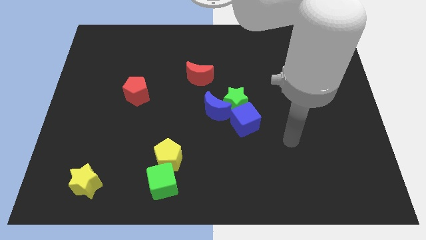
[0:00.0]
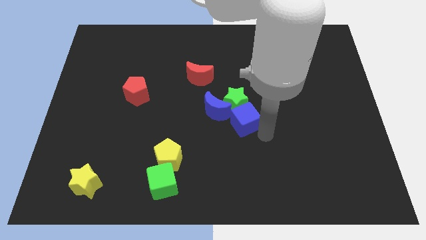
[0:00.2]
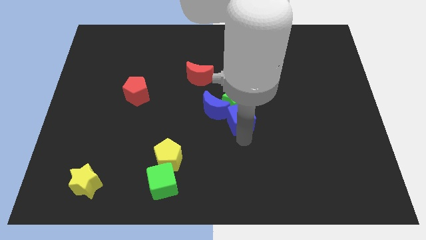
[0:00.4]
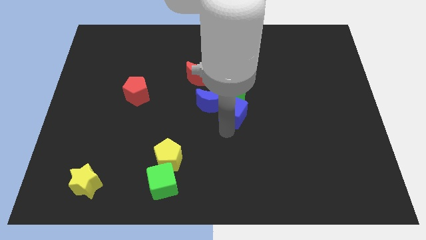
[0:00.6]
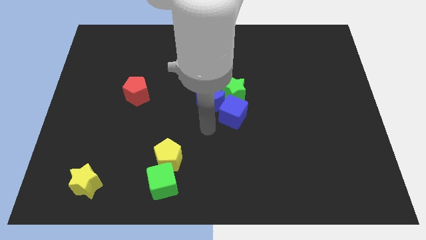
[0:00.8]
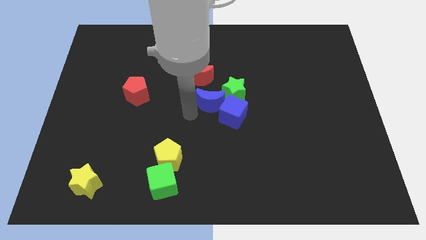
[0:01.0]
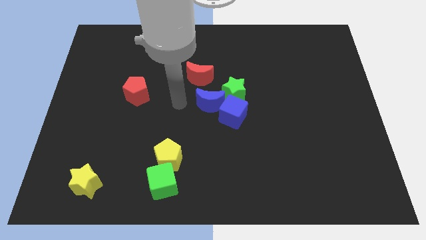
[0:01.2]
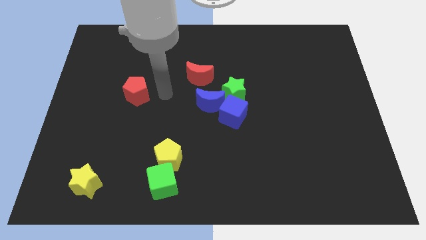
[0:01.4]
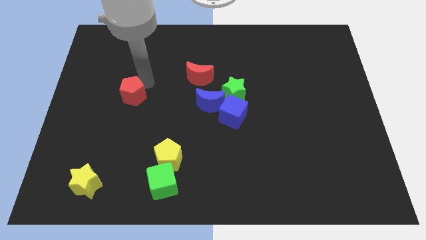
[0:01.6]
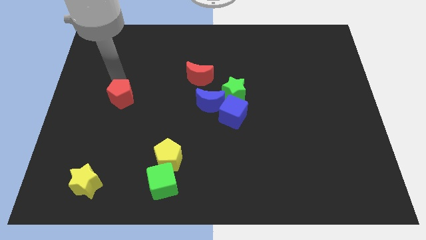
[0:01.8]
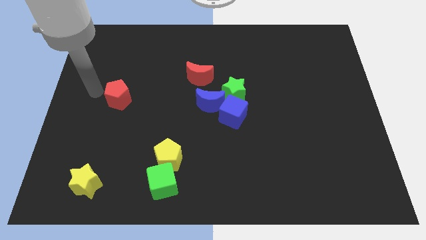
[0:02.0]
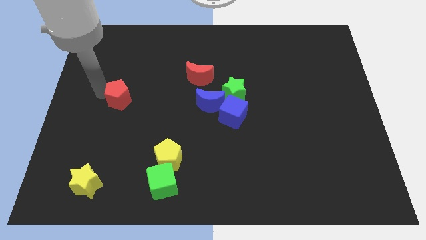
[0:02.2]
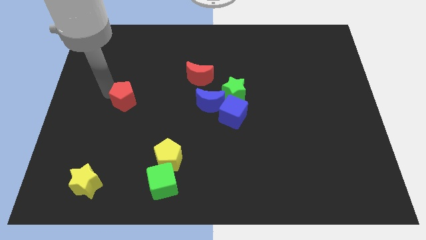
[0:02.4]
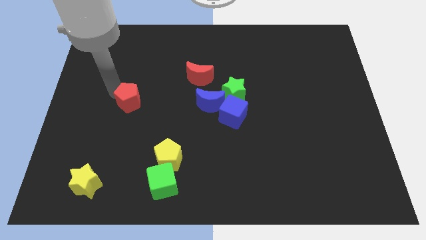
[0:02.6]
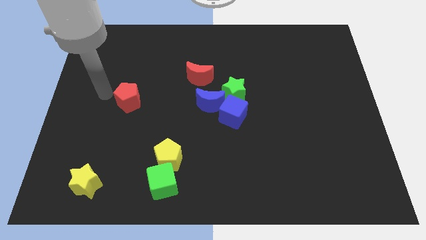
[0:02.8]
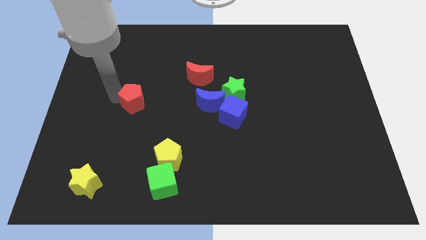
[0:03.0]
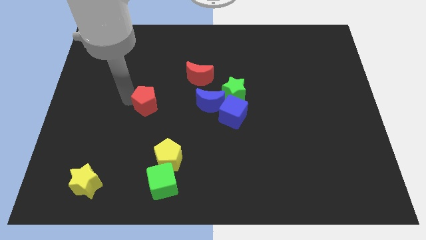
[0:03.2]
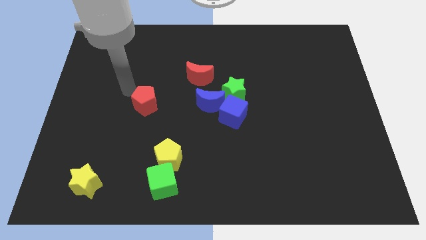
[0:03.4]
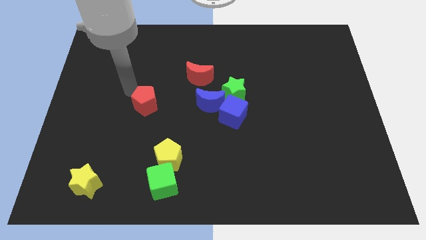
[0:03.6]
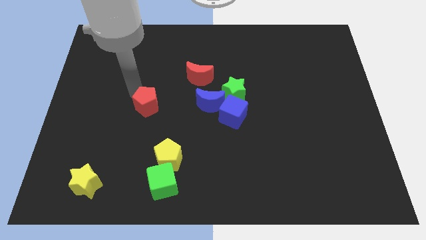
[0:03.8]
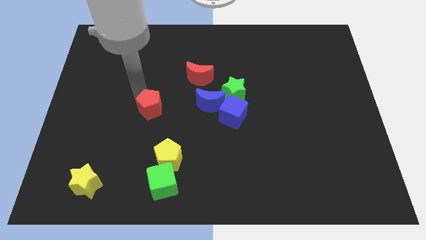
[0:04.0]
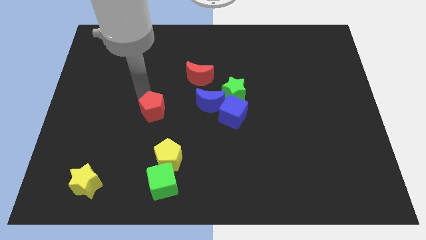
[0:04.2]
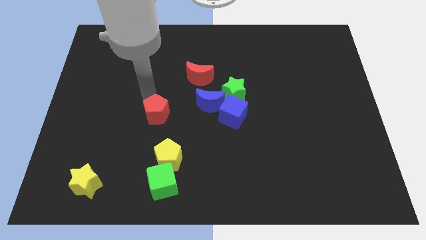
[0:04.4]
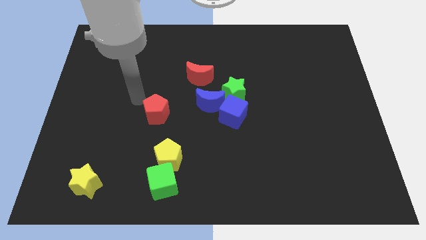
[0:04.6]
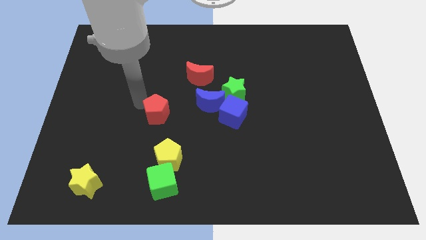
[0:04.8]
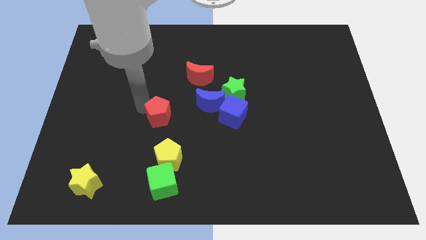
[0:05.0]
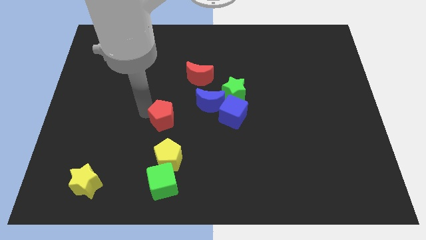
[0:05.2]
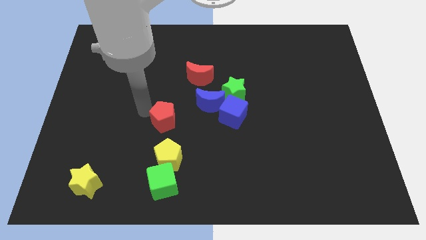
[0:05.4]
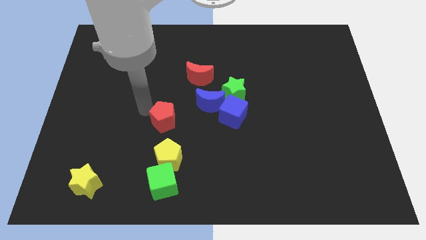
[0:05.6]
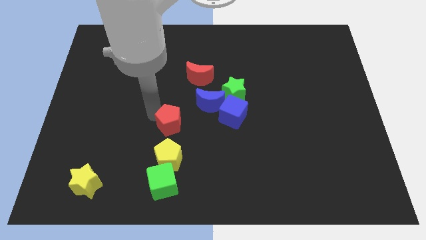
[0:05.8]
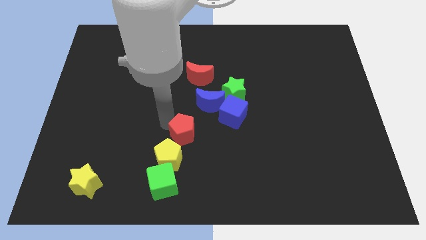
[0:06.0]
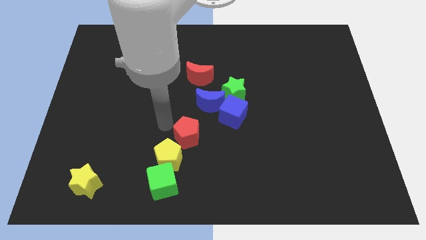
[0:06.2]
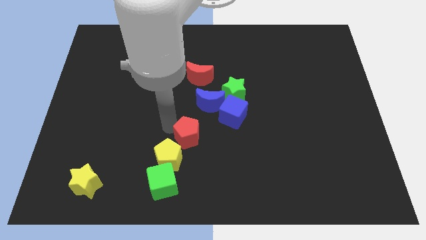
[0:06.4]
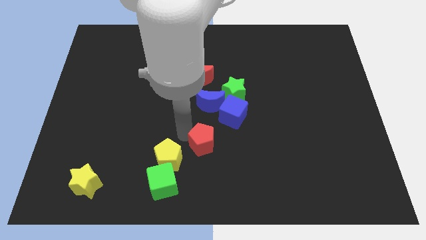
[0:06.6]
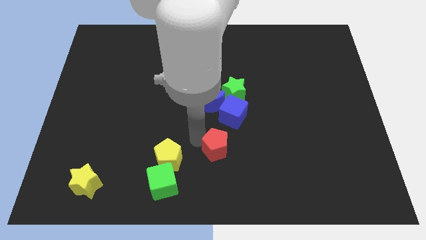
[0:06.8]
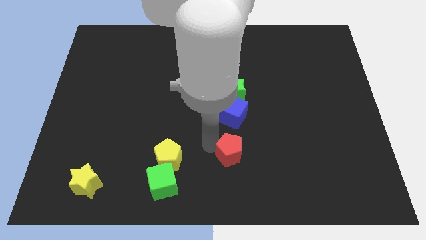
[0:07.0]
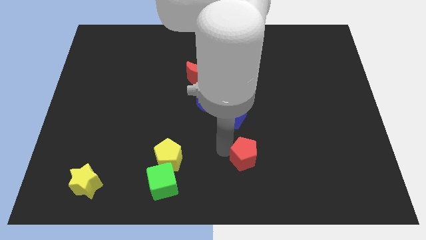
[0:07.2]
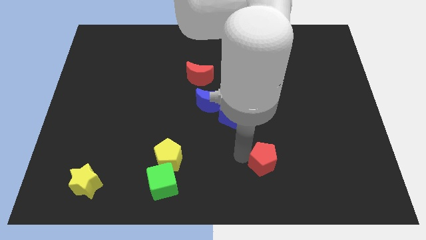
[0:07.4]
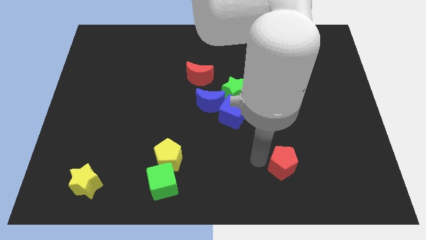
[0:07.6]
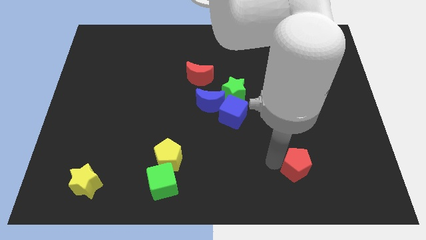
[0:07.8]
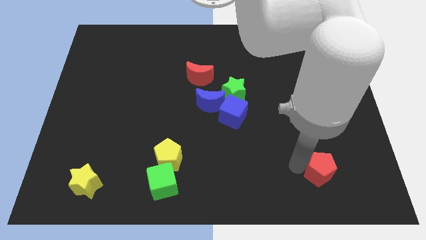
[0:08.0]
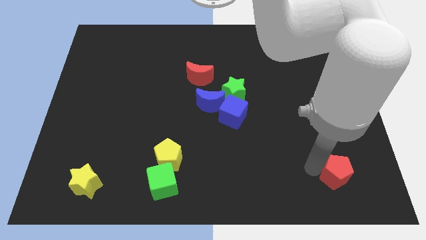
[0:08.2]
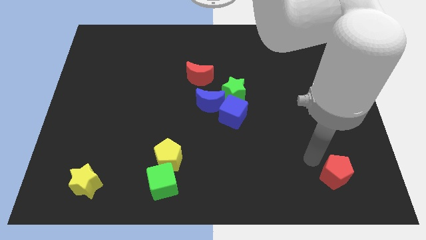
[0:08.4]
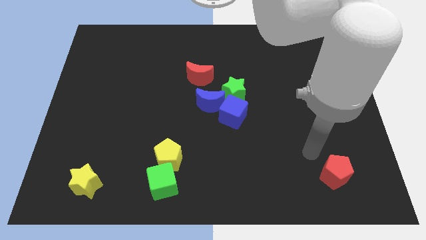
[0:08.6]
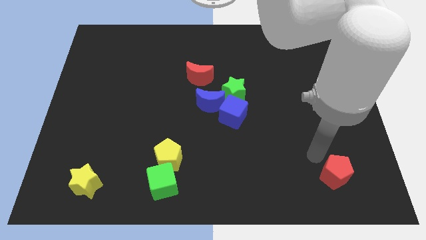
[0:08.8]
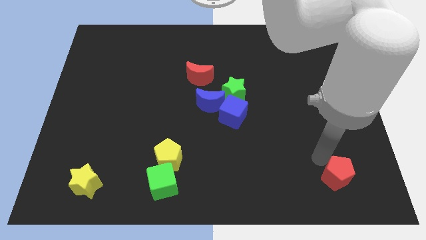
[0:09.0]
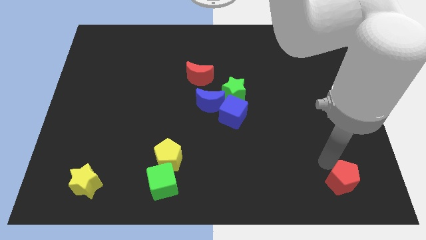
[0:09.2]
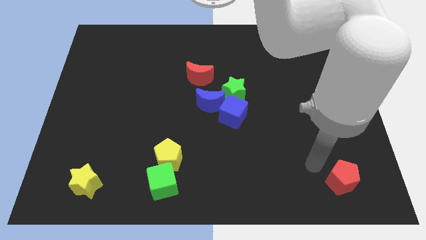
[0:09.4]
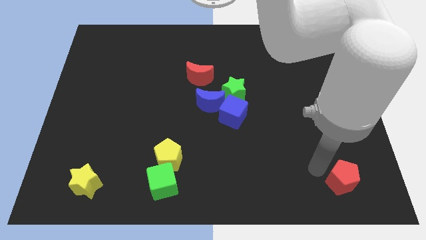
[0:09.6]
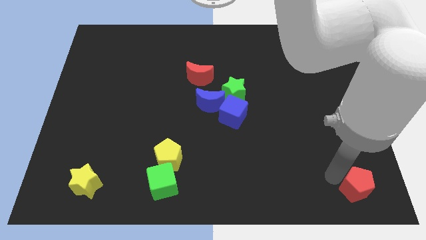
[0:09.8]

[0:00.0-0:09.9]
push the red pentagon to the lower right corner

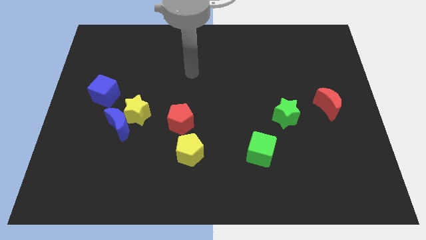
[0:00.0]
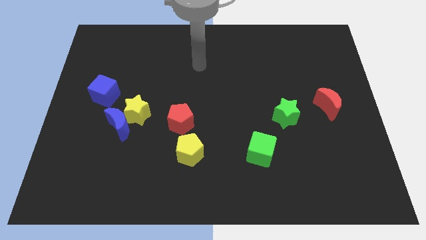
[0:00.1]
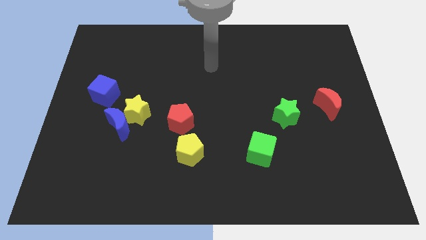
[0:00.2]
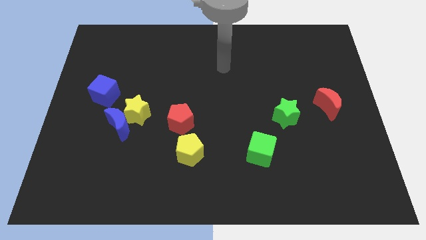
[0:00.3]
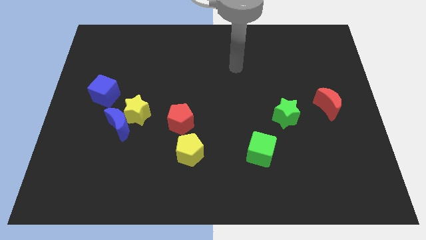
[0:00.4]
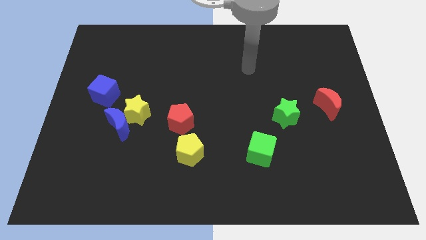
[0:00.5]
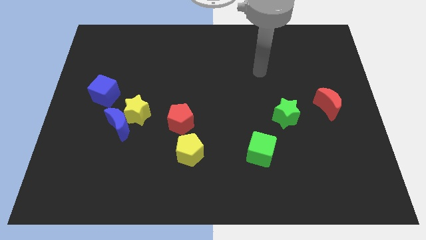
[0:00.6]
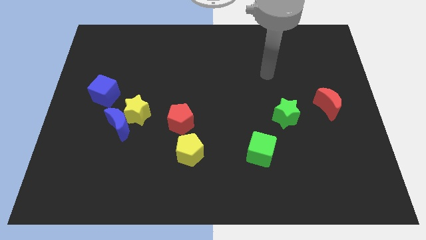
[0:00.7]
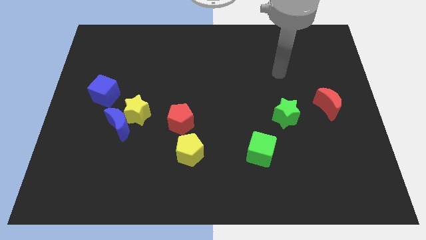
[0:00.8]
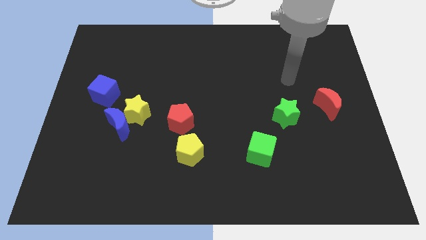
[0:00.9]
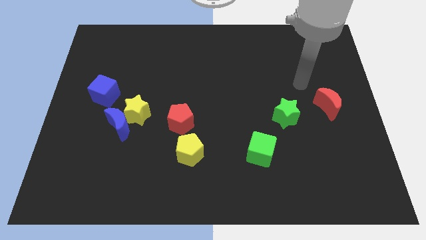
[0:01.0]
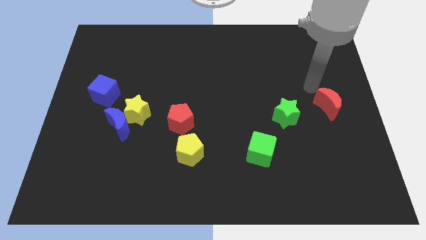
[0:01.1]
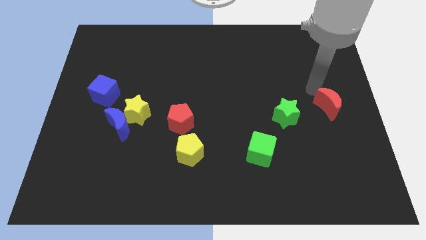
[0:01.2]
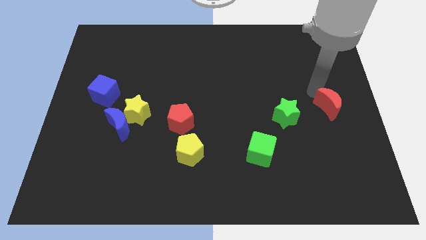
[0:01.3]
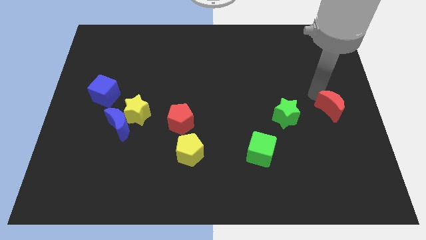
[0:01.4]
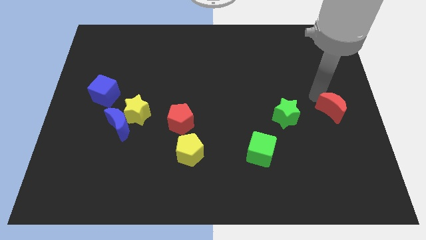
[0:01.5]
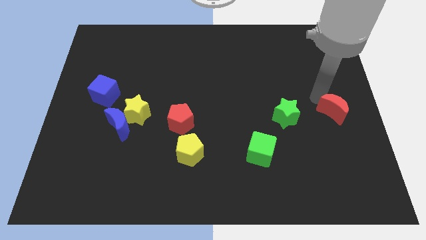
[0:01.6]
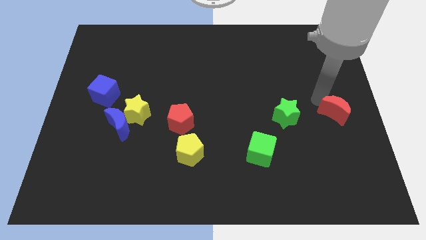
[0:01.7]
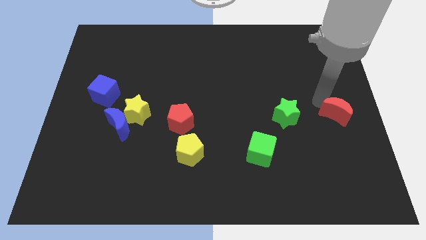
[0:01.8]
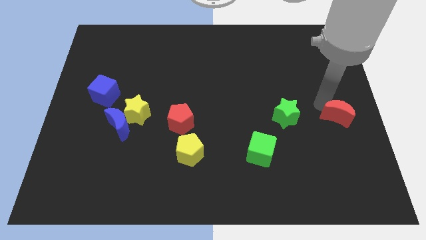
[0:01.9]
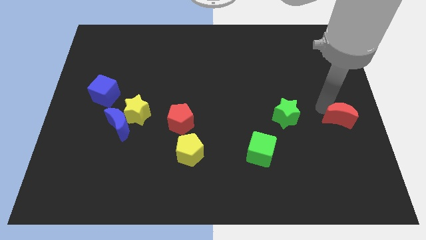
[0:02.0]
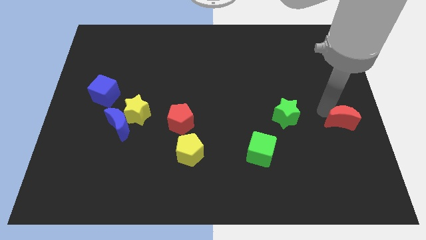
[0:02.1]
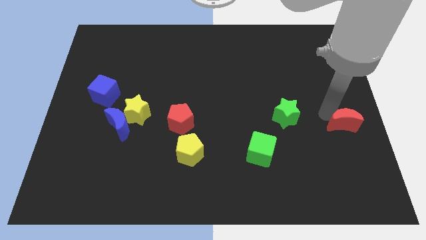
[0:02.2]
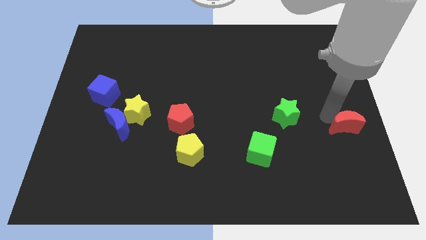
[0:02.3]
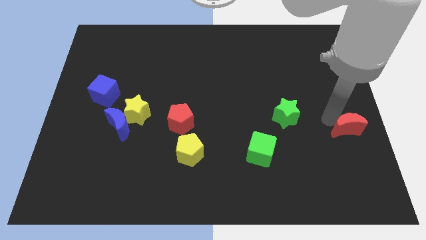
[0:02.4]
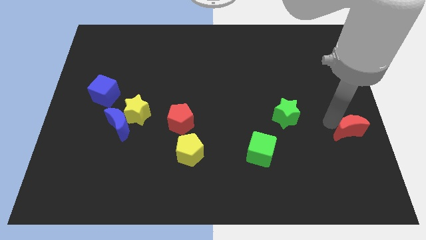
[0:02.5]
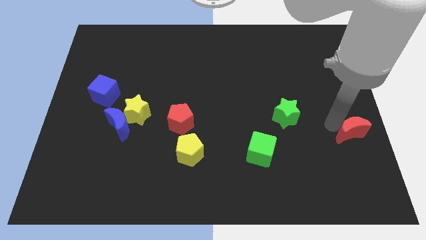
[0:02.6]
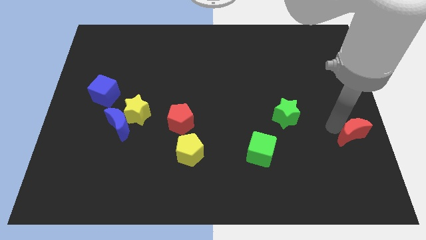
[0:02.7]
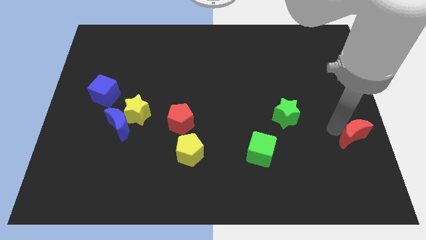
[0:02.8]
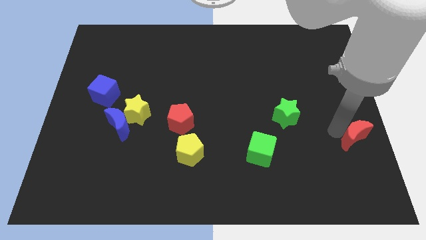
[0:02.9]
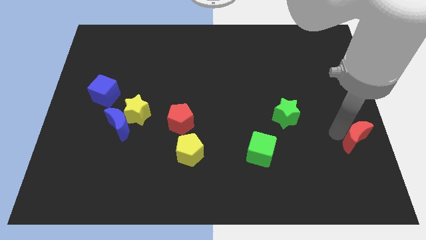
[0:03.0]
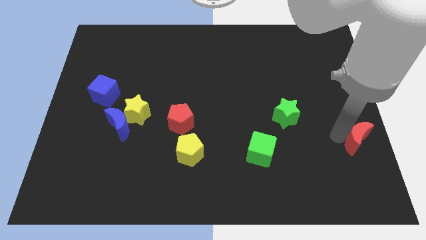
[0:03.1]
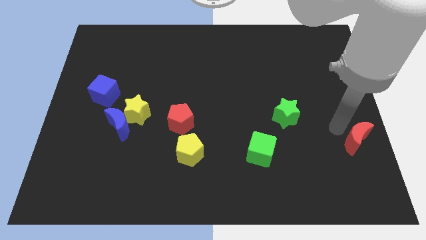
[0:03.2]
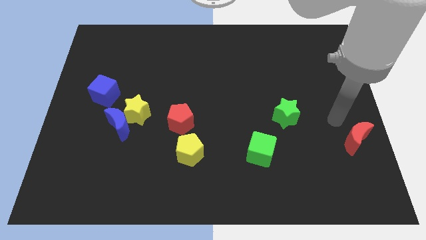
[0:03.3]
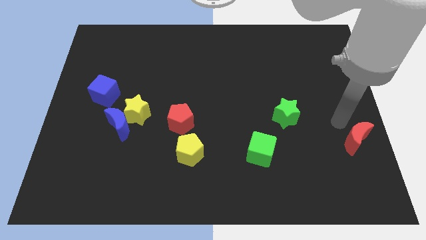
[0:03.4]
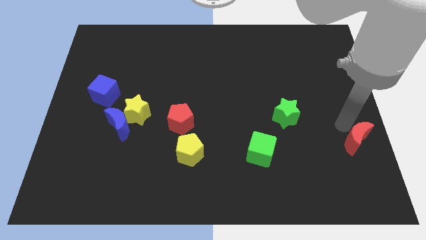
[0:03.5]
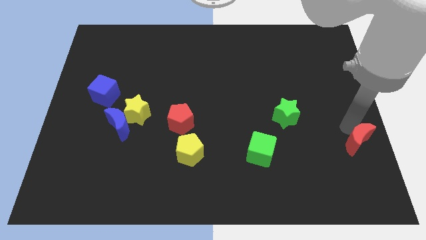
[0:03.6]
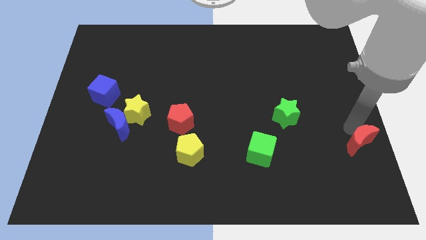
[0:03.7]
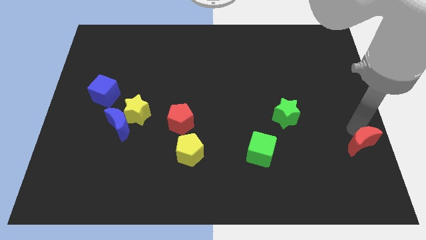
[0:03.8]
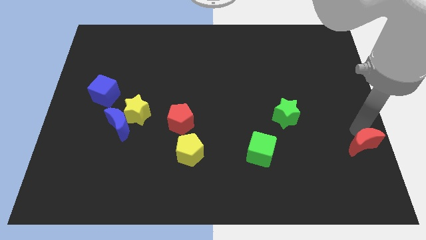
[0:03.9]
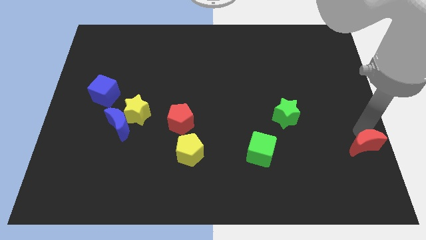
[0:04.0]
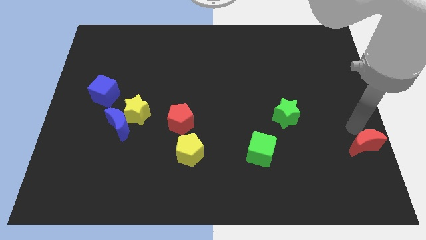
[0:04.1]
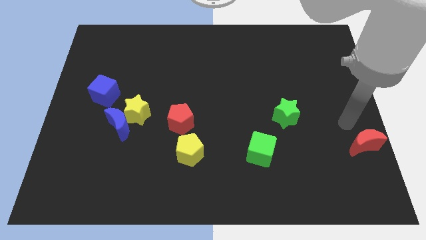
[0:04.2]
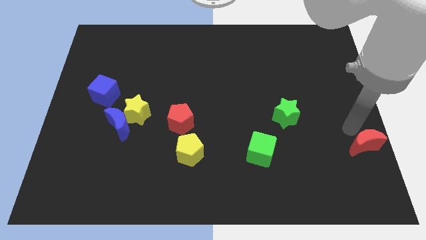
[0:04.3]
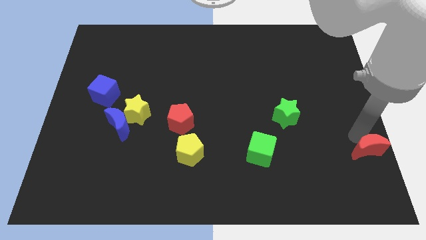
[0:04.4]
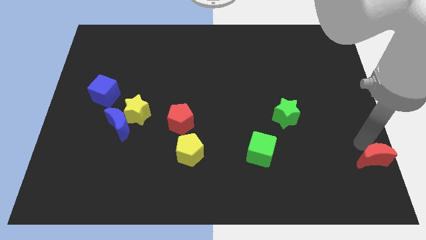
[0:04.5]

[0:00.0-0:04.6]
put the red moon to the lower right corner
